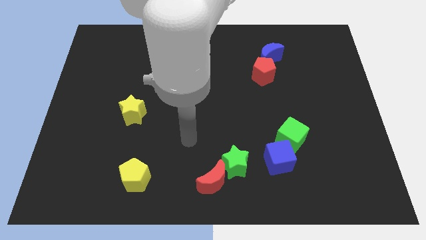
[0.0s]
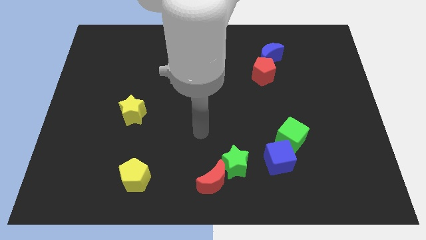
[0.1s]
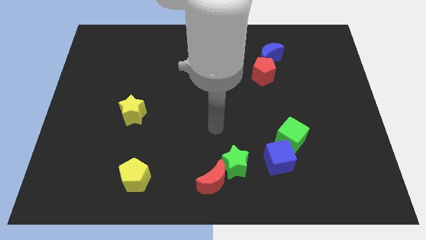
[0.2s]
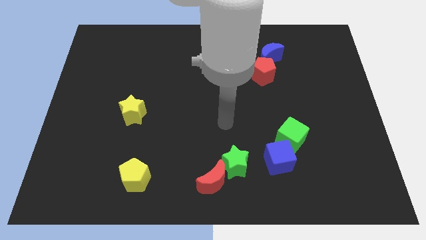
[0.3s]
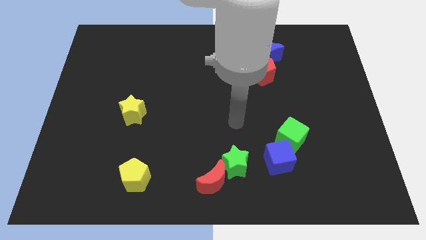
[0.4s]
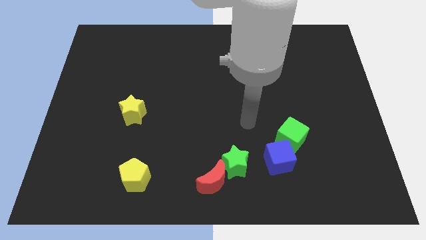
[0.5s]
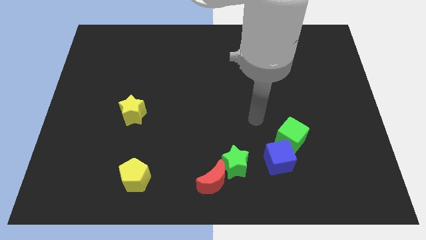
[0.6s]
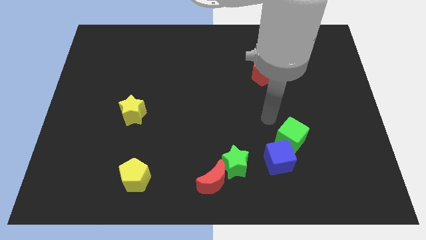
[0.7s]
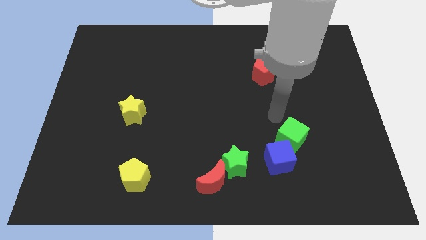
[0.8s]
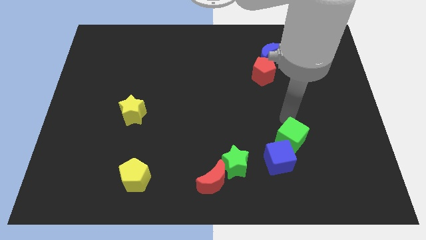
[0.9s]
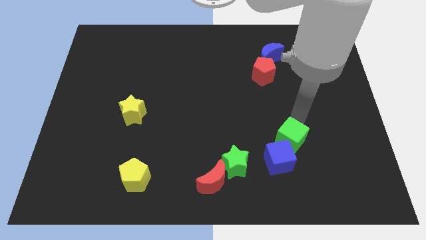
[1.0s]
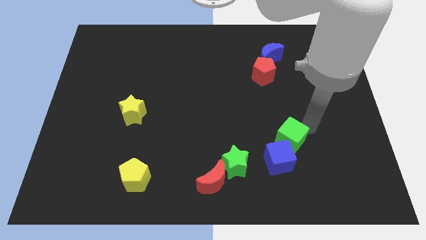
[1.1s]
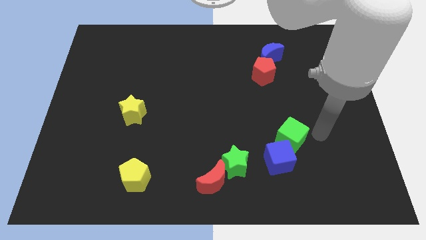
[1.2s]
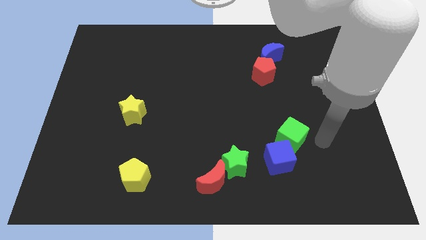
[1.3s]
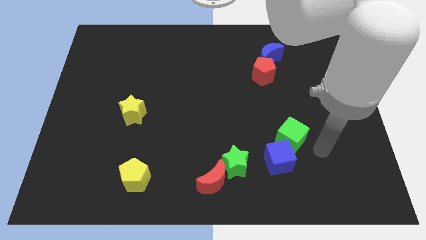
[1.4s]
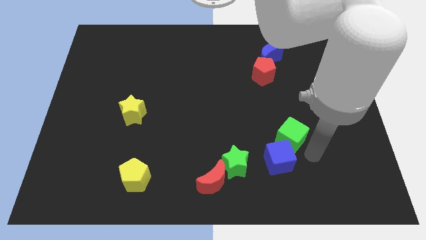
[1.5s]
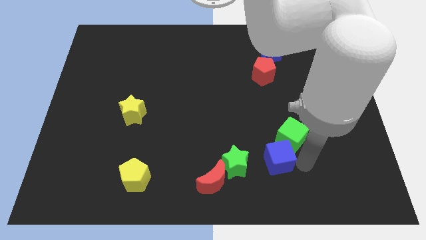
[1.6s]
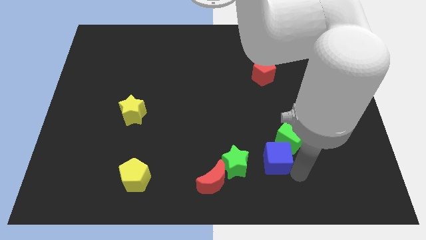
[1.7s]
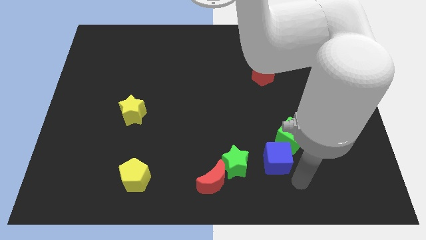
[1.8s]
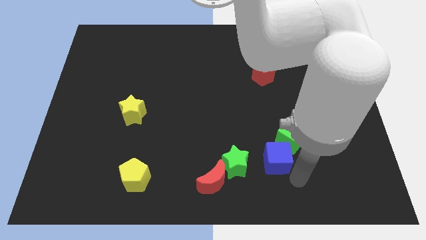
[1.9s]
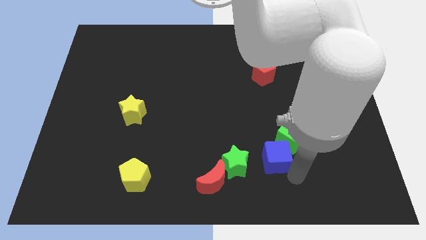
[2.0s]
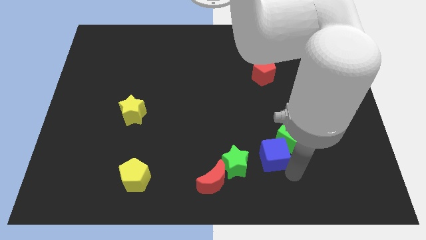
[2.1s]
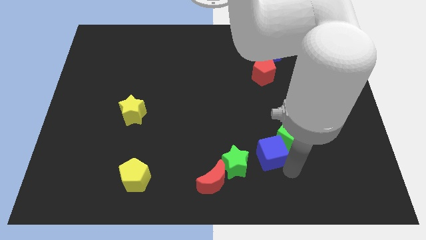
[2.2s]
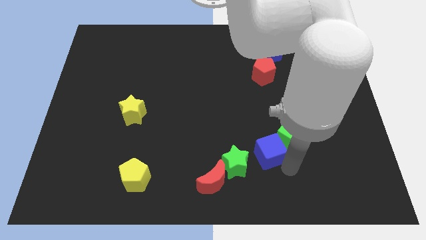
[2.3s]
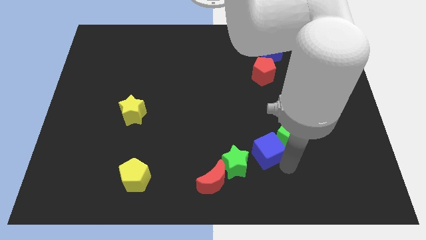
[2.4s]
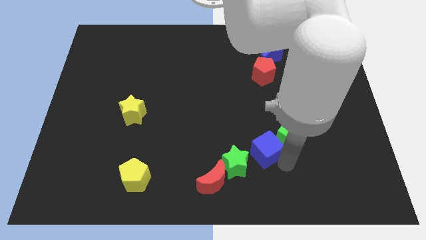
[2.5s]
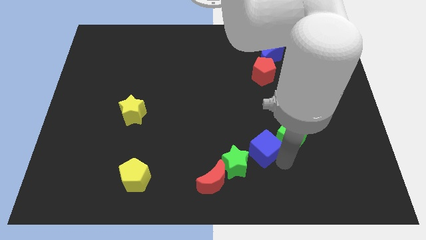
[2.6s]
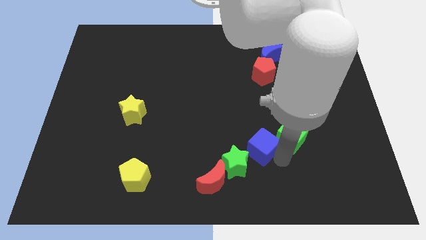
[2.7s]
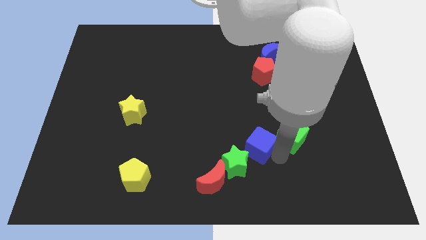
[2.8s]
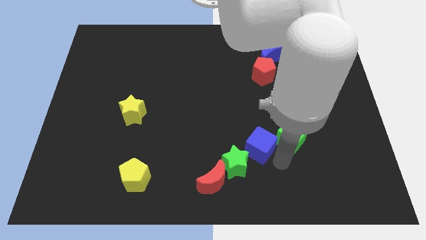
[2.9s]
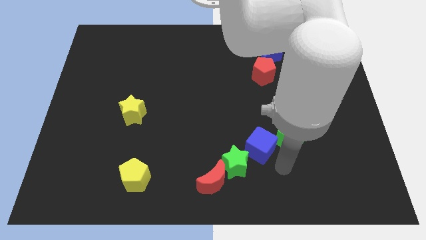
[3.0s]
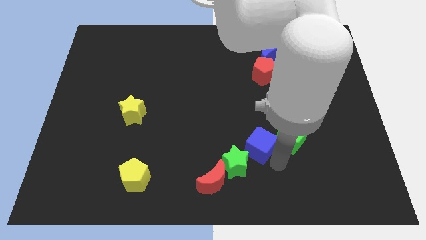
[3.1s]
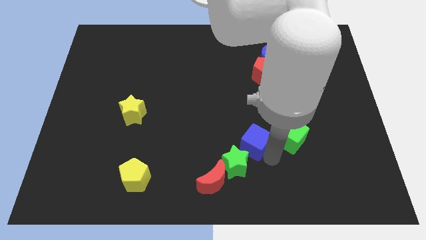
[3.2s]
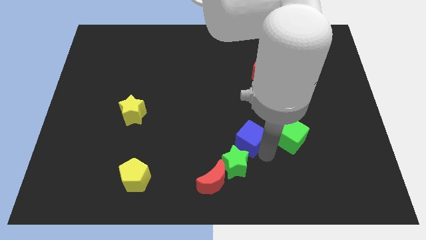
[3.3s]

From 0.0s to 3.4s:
slide the blue cube up and then to the left a bit

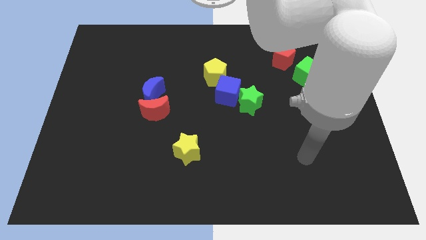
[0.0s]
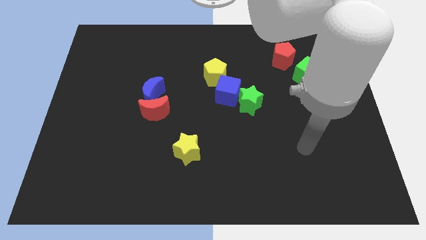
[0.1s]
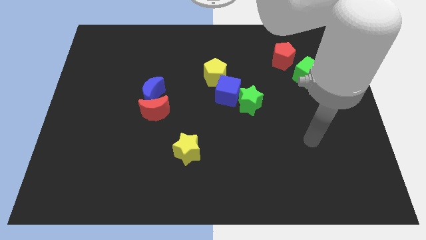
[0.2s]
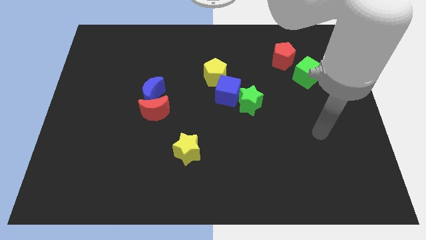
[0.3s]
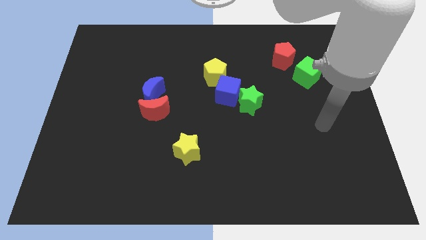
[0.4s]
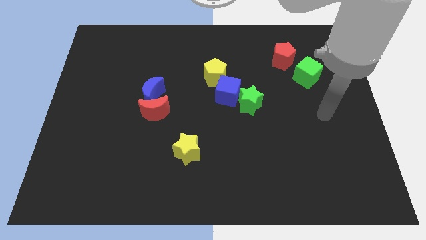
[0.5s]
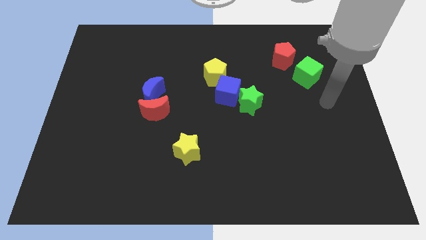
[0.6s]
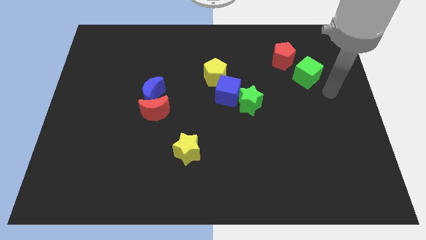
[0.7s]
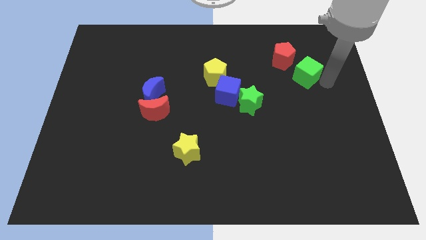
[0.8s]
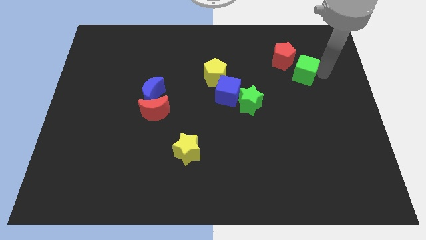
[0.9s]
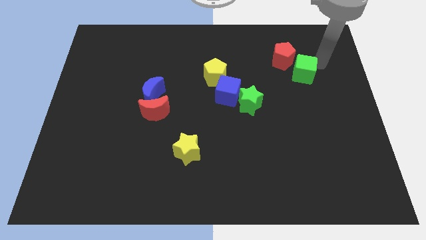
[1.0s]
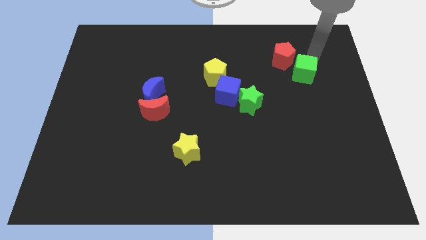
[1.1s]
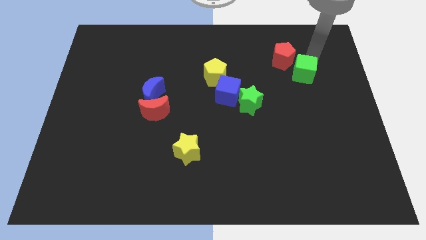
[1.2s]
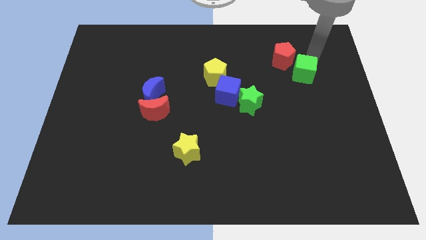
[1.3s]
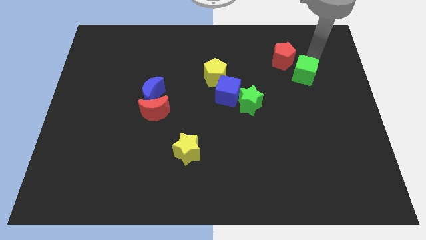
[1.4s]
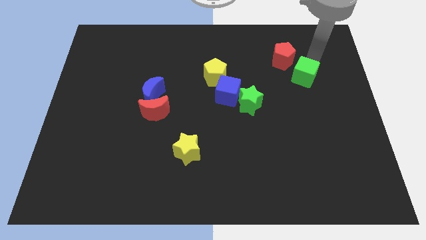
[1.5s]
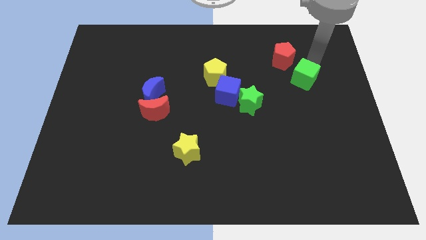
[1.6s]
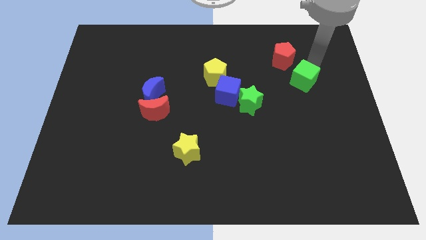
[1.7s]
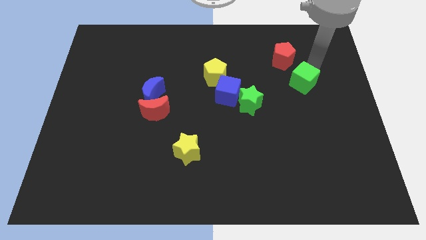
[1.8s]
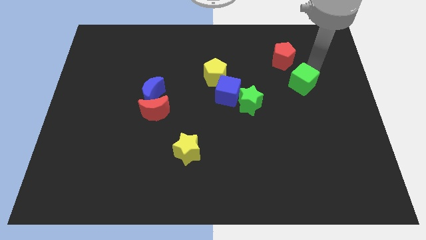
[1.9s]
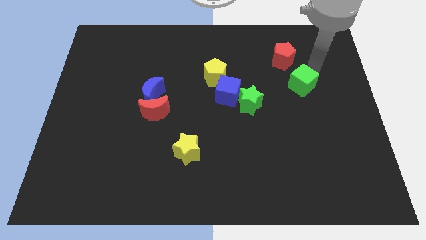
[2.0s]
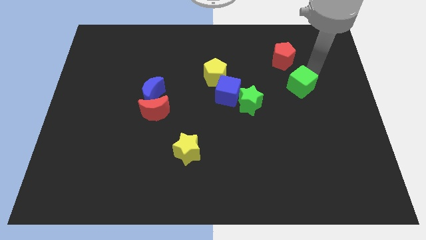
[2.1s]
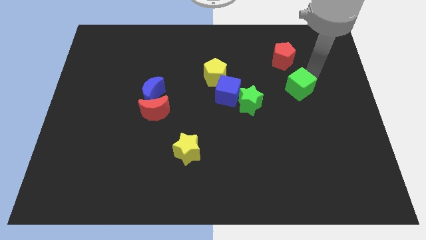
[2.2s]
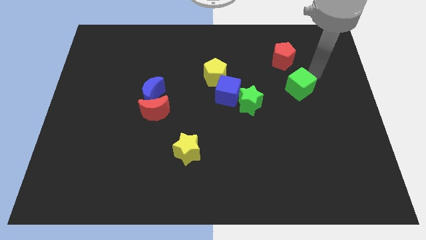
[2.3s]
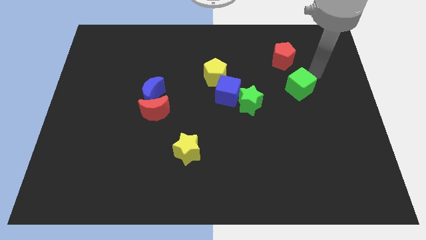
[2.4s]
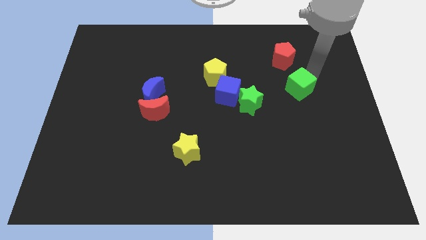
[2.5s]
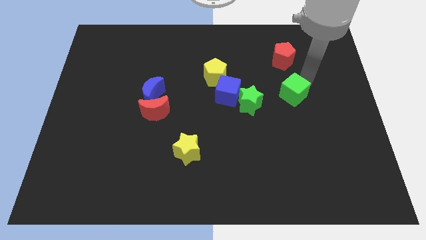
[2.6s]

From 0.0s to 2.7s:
slide the green cube downwards and then to the left somewhat

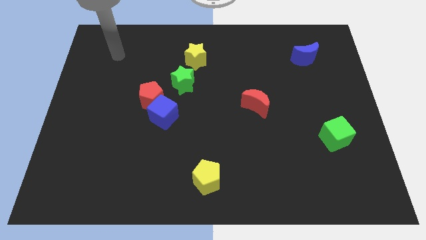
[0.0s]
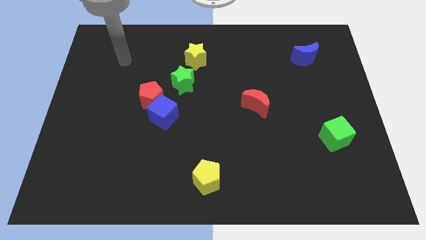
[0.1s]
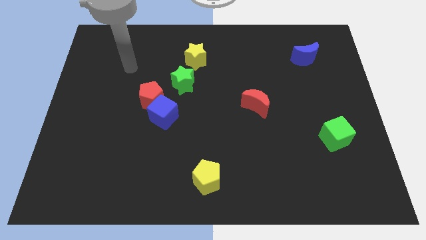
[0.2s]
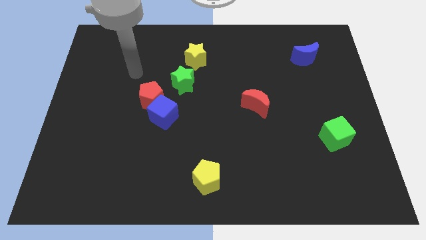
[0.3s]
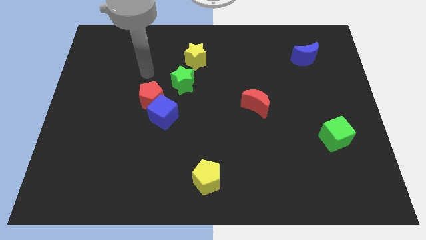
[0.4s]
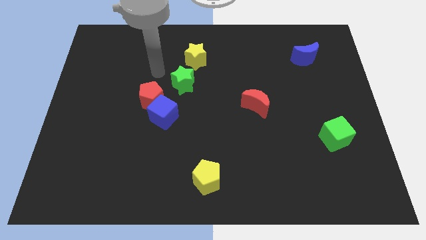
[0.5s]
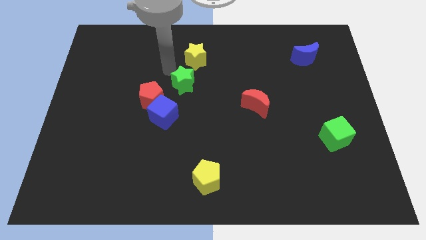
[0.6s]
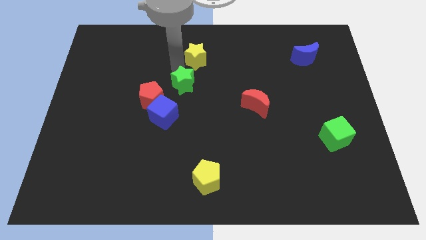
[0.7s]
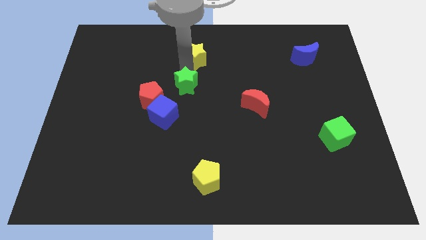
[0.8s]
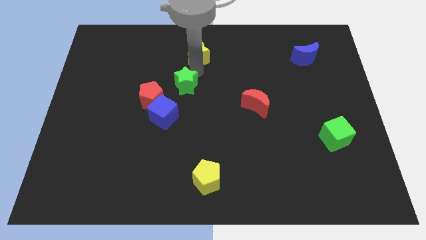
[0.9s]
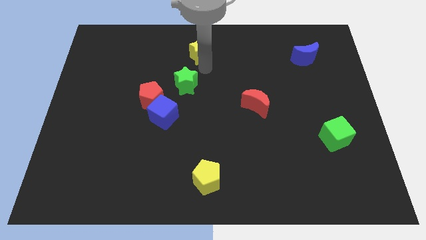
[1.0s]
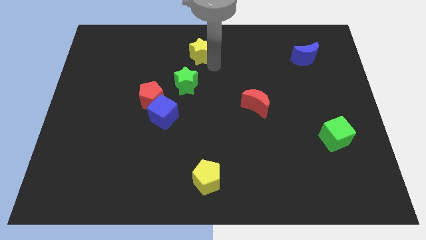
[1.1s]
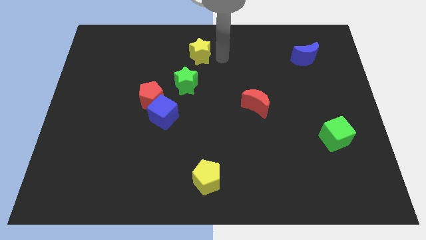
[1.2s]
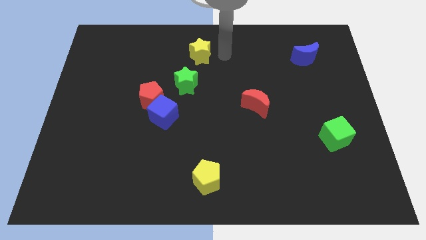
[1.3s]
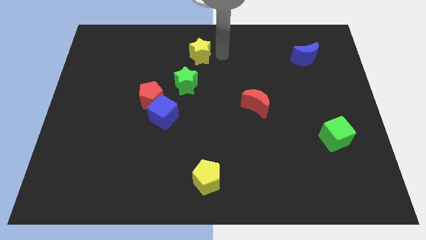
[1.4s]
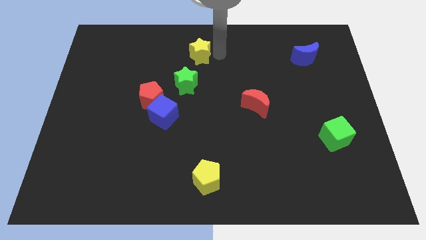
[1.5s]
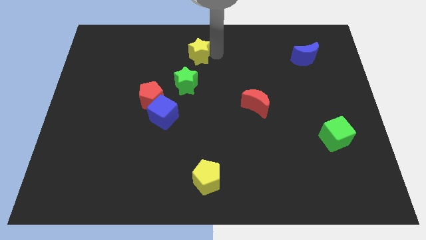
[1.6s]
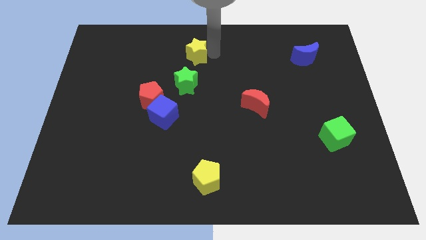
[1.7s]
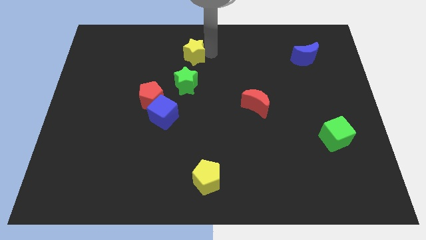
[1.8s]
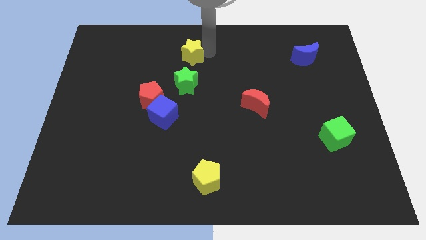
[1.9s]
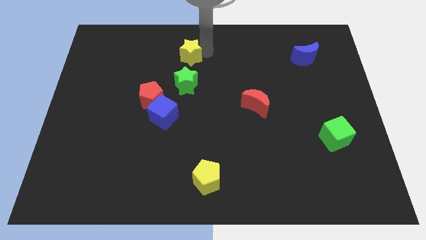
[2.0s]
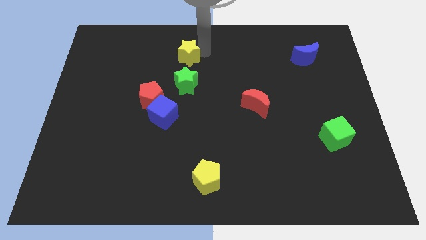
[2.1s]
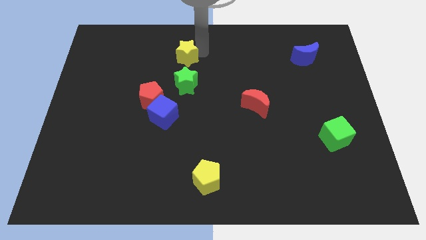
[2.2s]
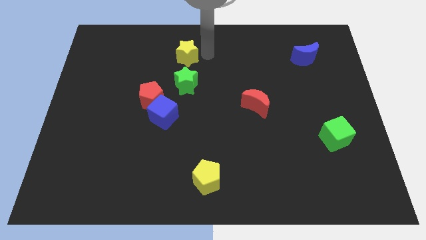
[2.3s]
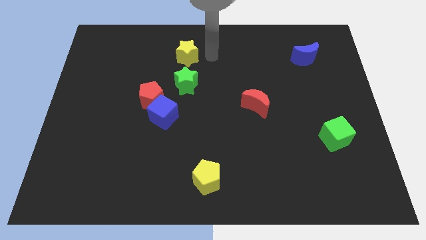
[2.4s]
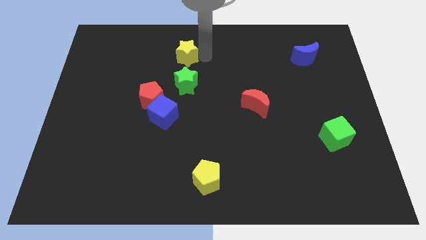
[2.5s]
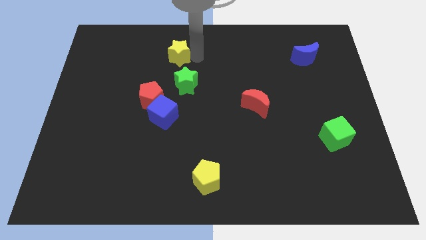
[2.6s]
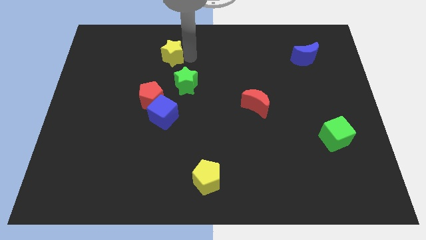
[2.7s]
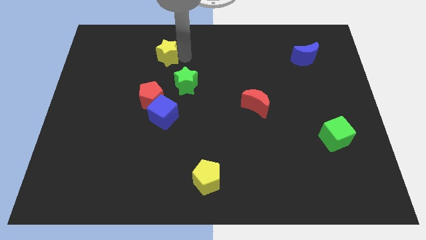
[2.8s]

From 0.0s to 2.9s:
slightly slide the yellow star to the left
